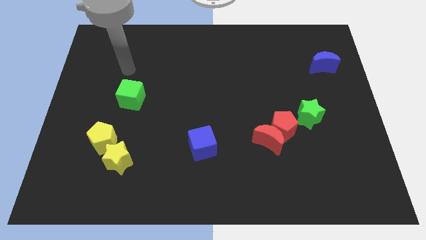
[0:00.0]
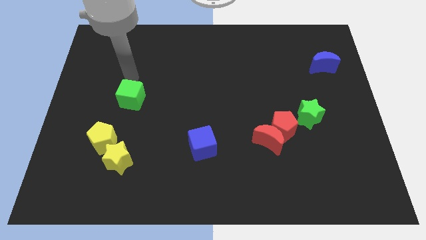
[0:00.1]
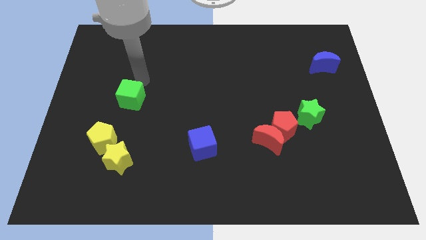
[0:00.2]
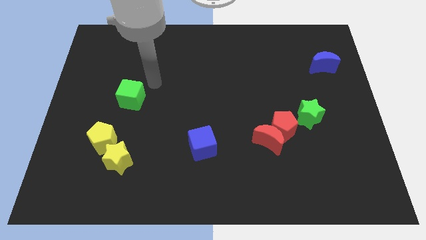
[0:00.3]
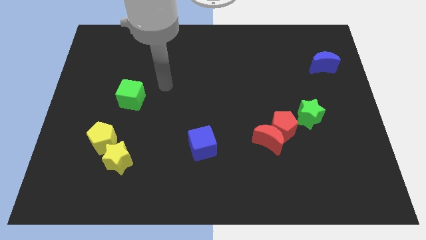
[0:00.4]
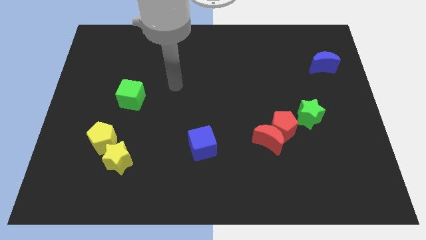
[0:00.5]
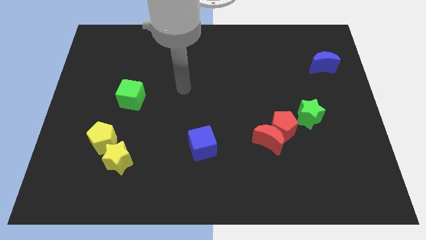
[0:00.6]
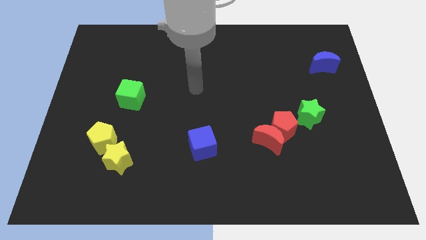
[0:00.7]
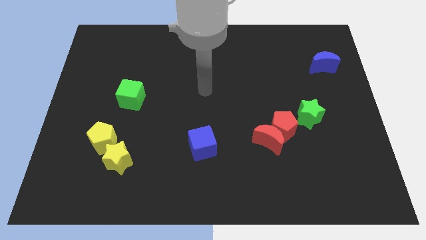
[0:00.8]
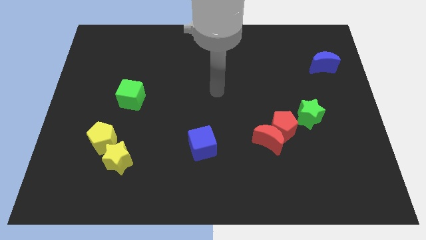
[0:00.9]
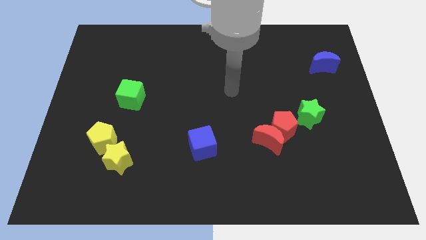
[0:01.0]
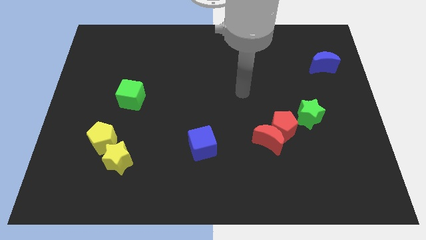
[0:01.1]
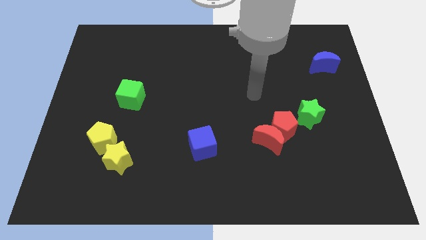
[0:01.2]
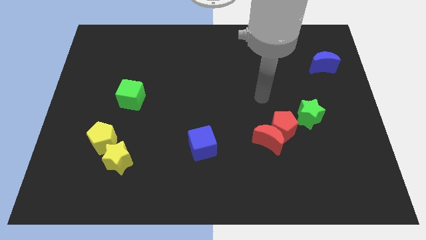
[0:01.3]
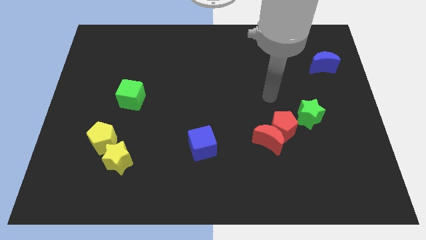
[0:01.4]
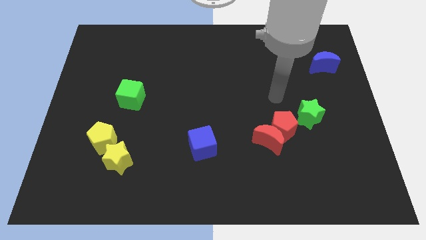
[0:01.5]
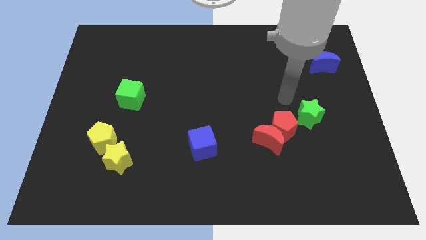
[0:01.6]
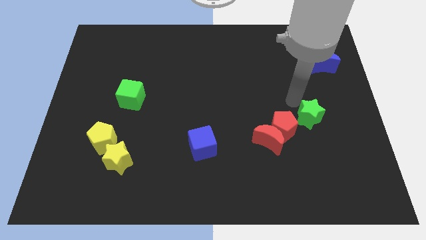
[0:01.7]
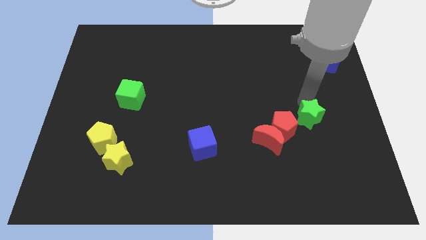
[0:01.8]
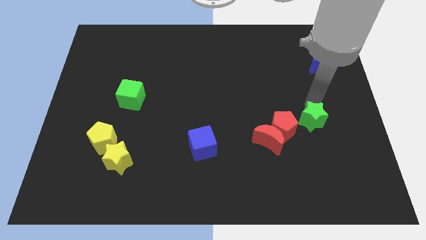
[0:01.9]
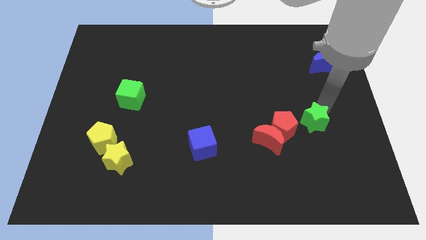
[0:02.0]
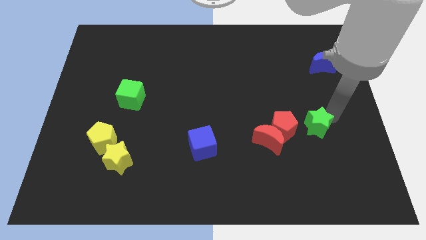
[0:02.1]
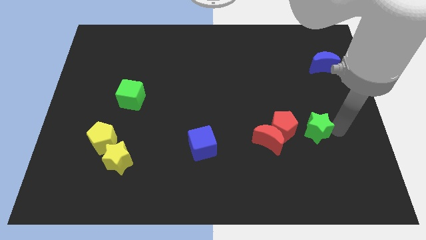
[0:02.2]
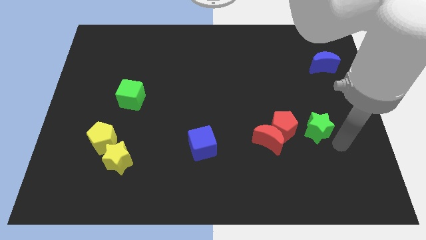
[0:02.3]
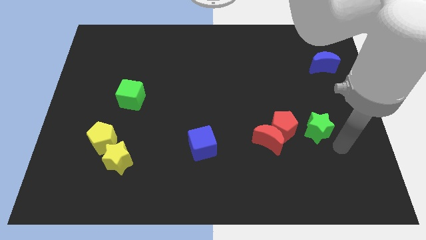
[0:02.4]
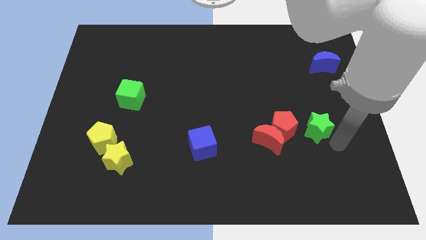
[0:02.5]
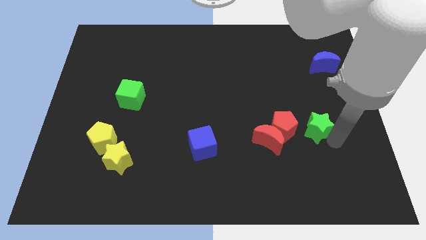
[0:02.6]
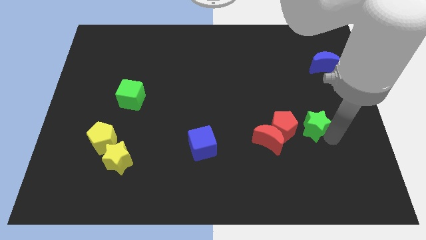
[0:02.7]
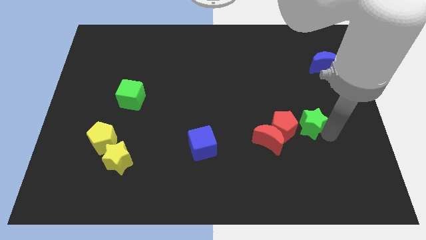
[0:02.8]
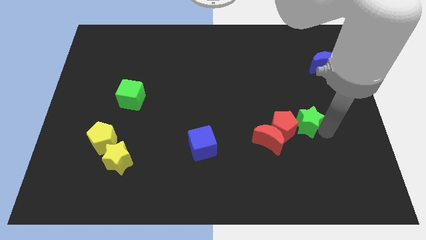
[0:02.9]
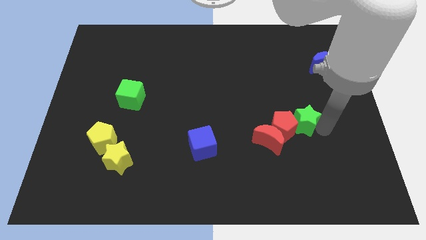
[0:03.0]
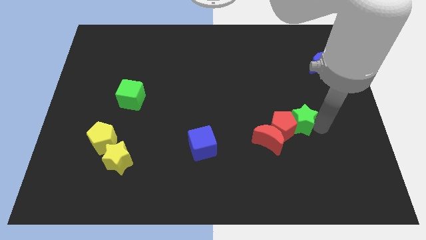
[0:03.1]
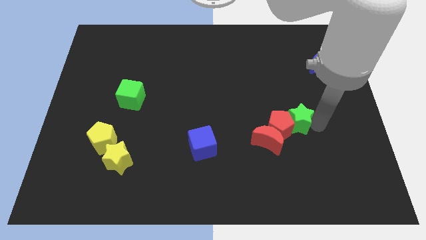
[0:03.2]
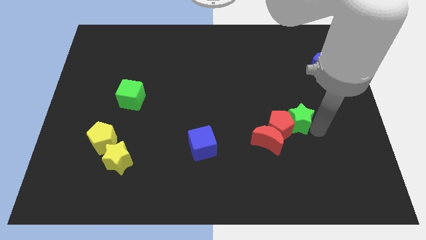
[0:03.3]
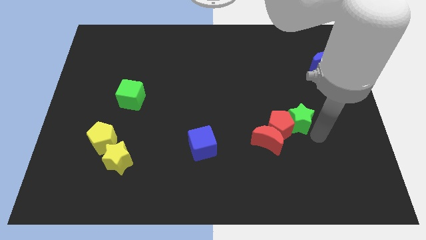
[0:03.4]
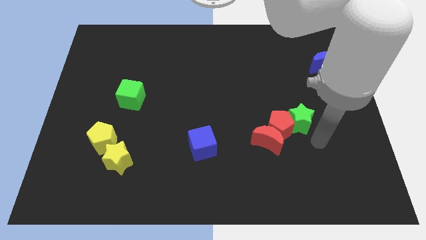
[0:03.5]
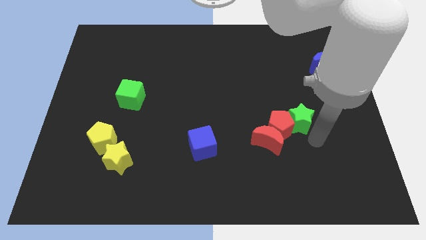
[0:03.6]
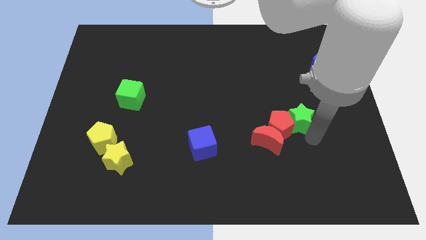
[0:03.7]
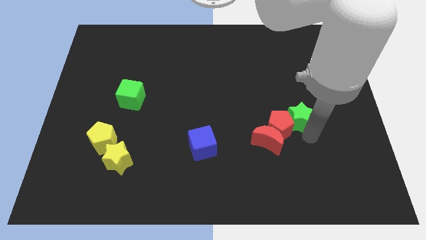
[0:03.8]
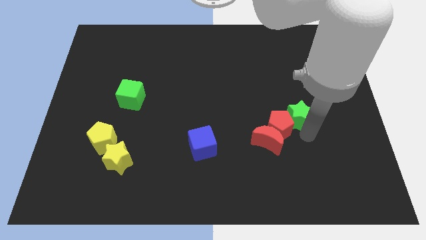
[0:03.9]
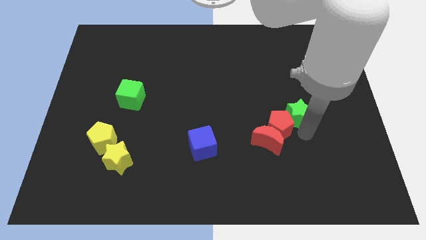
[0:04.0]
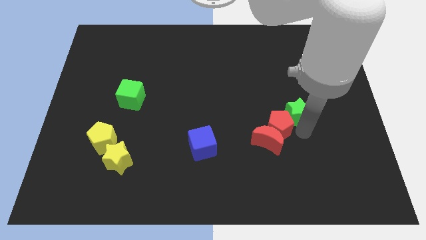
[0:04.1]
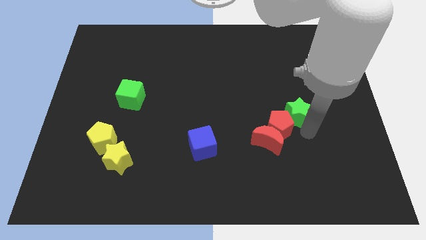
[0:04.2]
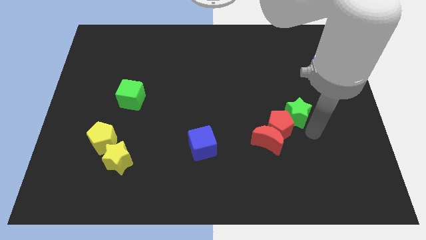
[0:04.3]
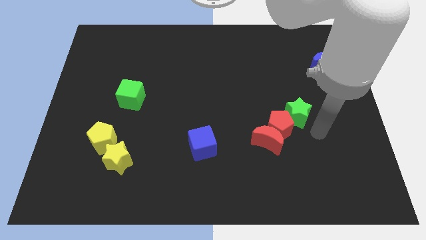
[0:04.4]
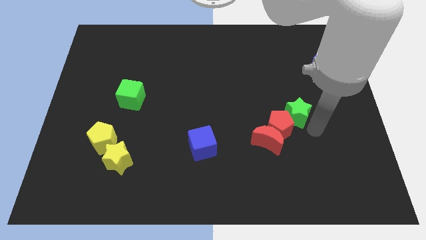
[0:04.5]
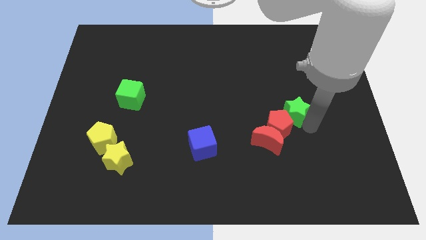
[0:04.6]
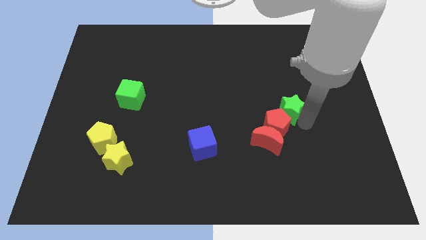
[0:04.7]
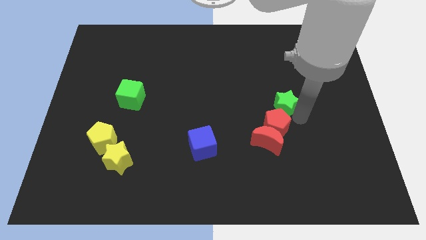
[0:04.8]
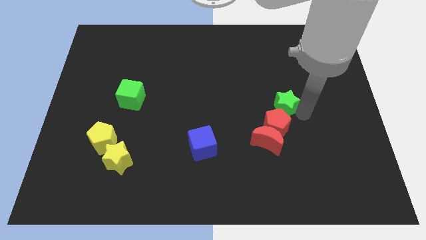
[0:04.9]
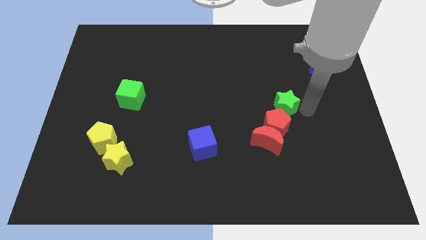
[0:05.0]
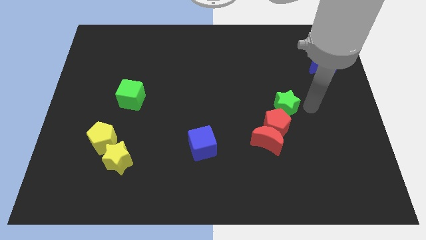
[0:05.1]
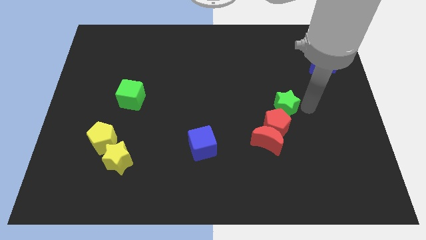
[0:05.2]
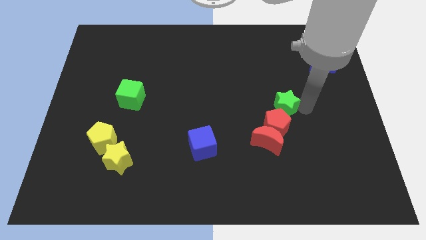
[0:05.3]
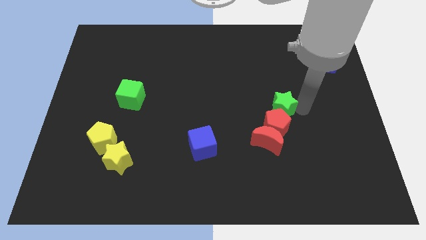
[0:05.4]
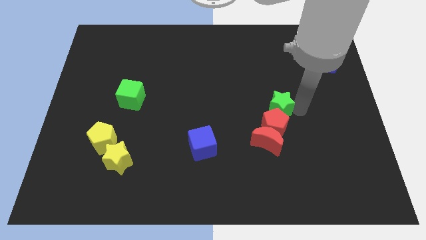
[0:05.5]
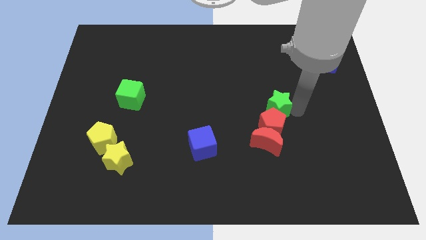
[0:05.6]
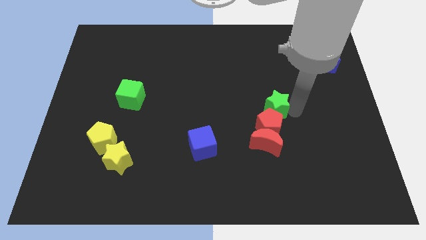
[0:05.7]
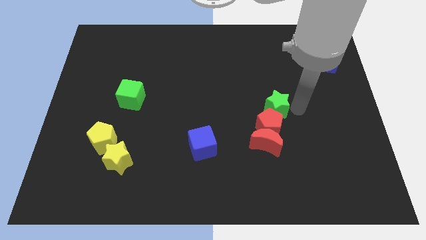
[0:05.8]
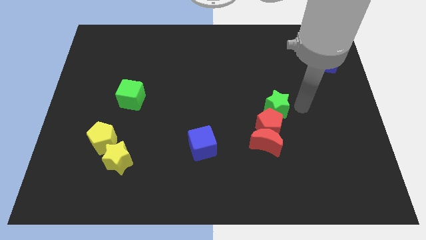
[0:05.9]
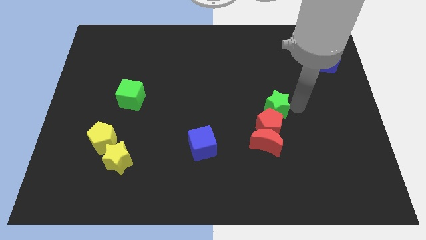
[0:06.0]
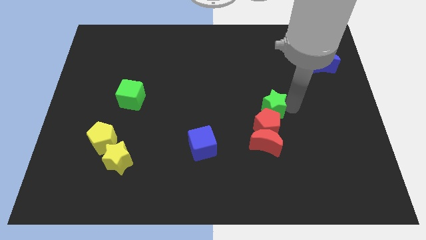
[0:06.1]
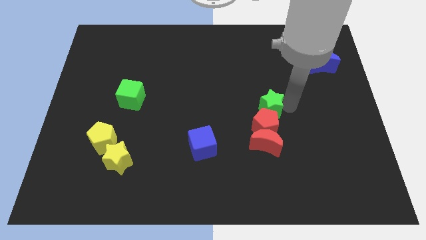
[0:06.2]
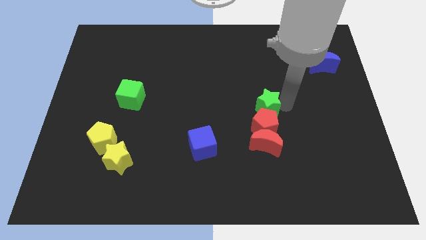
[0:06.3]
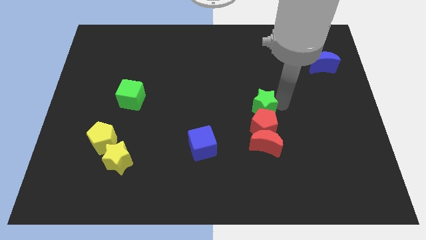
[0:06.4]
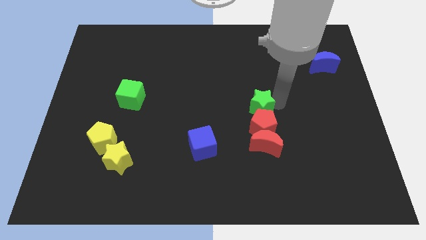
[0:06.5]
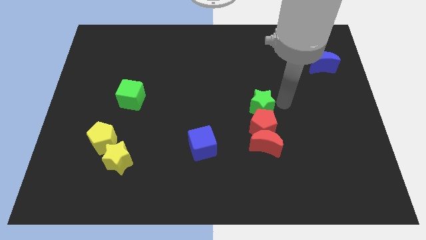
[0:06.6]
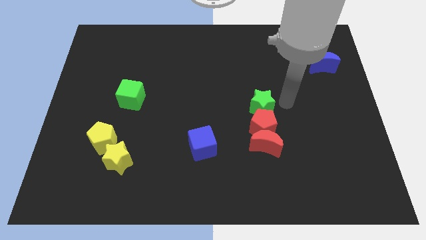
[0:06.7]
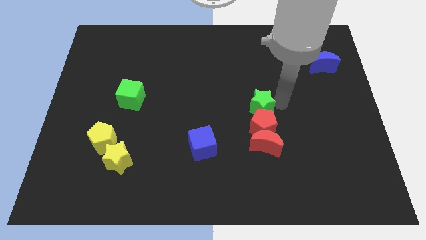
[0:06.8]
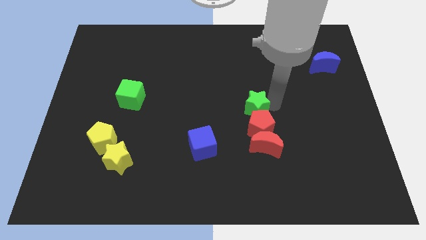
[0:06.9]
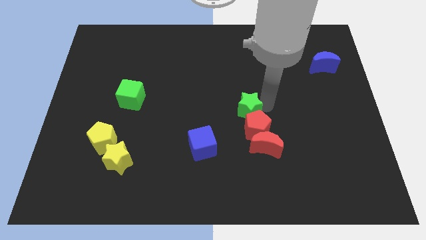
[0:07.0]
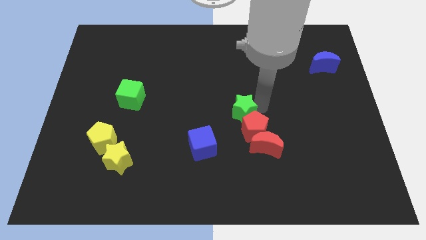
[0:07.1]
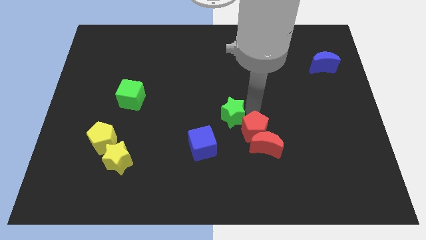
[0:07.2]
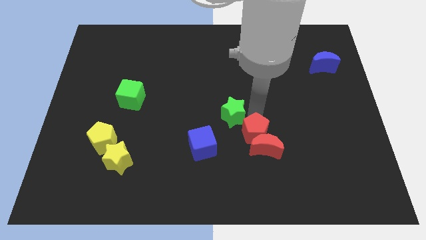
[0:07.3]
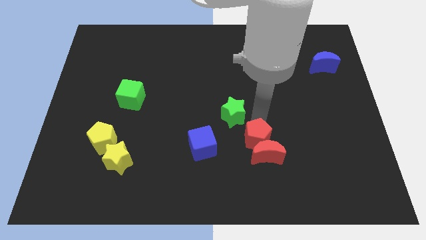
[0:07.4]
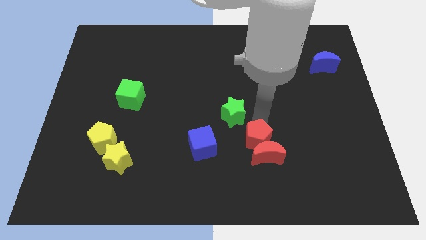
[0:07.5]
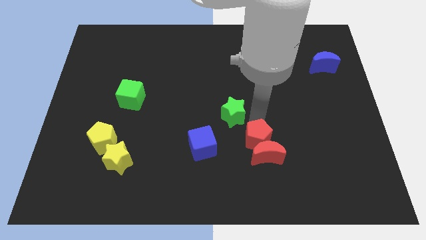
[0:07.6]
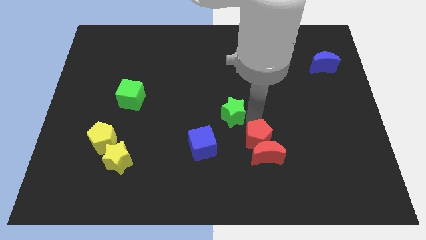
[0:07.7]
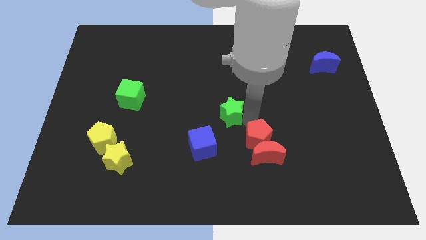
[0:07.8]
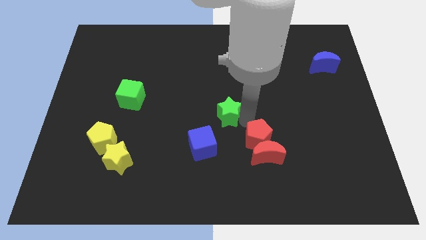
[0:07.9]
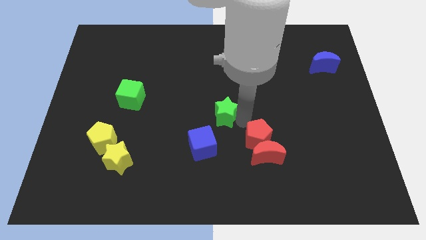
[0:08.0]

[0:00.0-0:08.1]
put the green star to the top side of the blue cube
